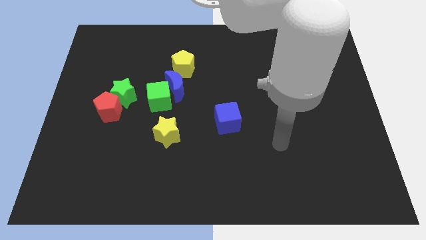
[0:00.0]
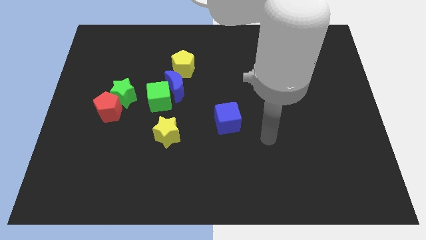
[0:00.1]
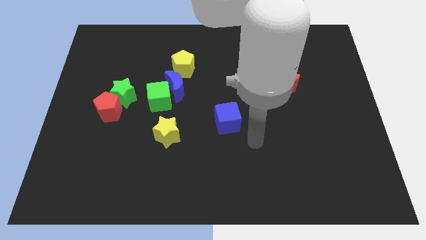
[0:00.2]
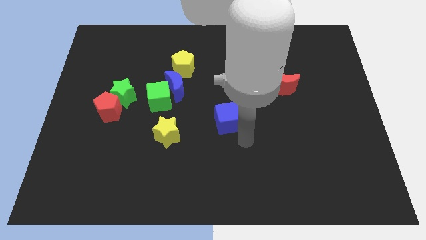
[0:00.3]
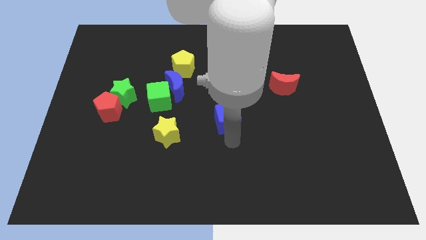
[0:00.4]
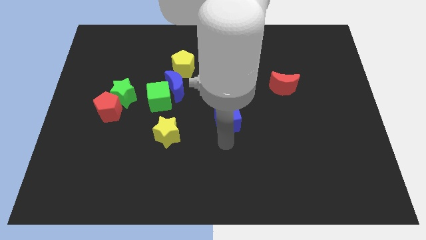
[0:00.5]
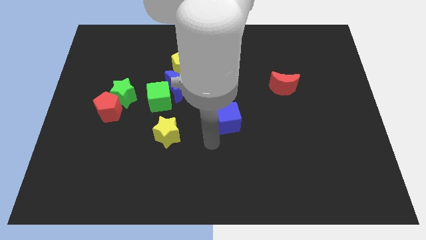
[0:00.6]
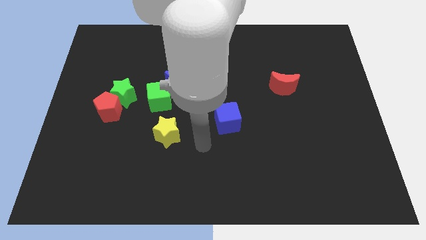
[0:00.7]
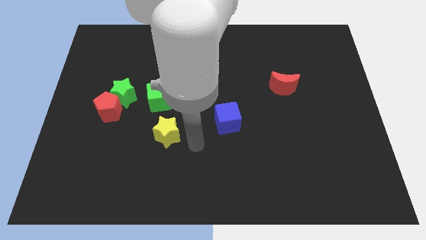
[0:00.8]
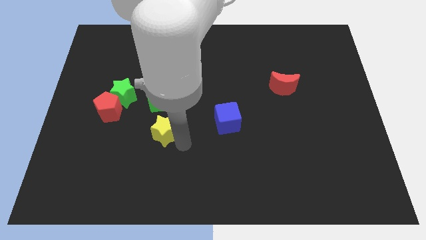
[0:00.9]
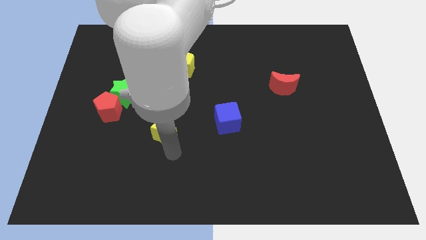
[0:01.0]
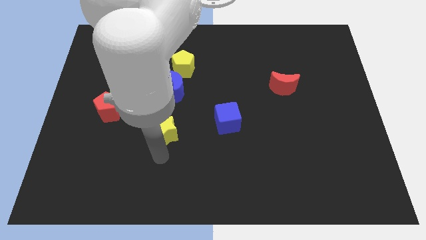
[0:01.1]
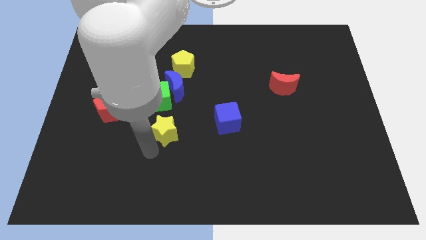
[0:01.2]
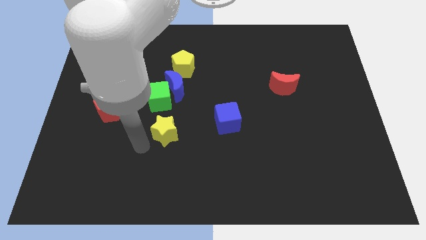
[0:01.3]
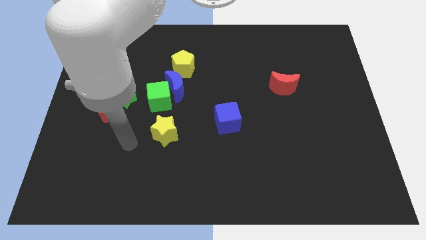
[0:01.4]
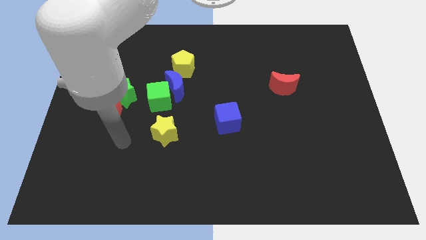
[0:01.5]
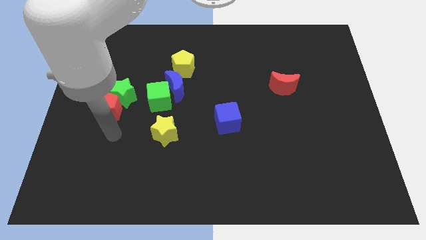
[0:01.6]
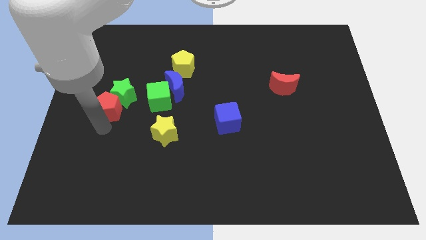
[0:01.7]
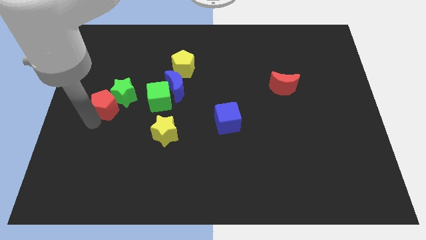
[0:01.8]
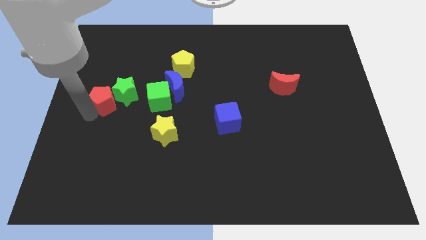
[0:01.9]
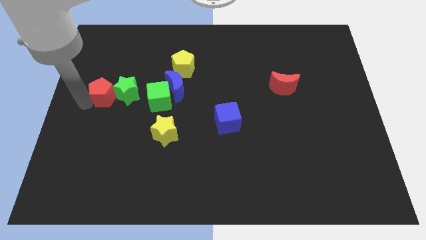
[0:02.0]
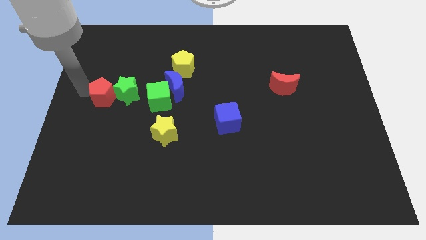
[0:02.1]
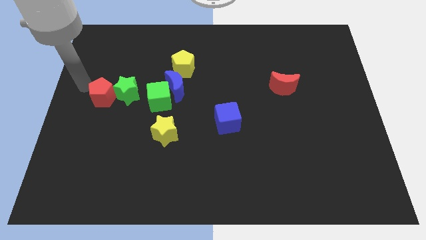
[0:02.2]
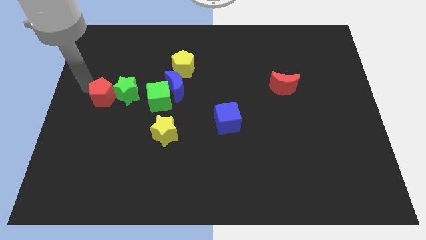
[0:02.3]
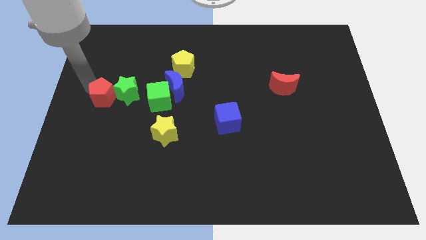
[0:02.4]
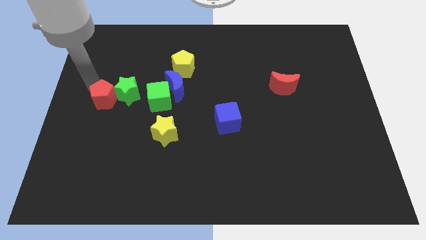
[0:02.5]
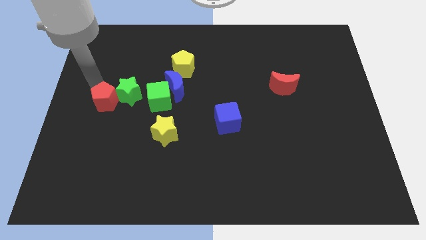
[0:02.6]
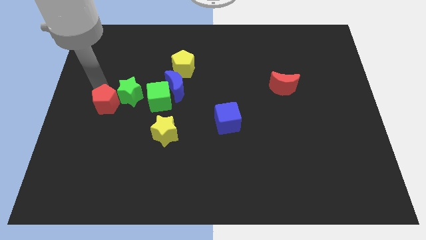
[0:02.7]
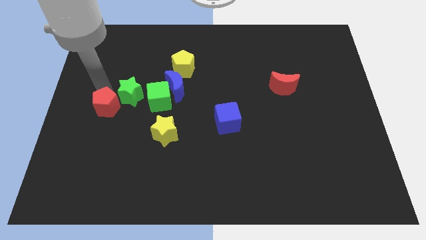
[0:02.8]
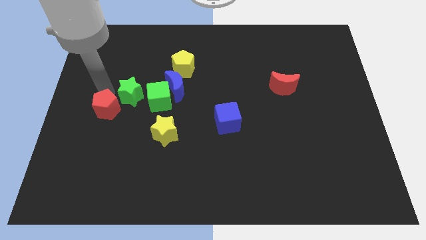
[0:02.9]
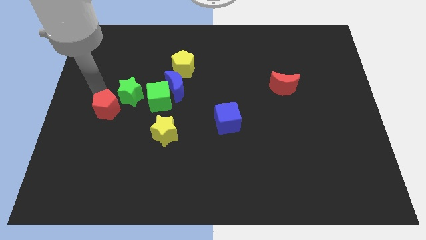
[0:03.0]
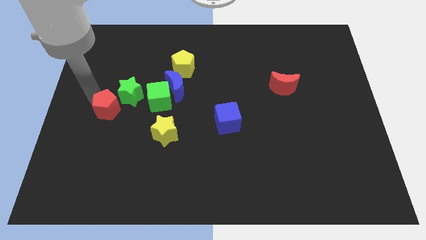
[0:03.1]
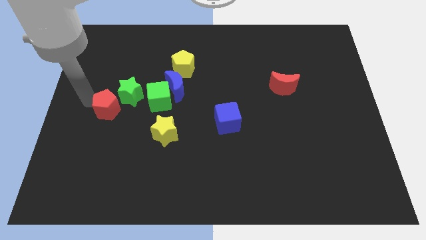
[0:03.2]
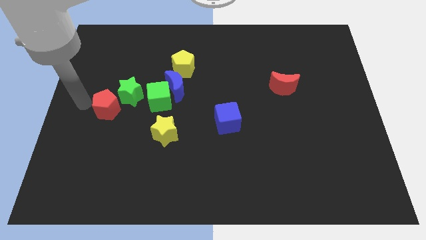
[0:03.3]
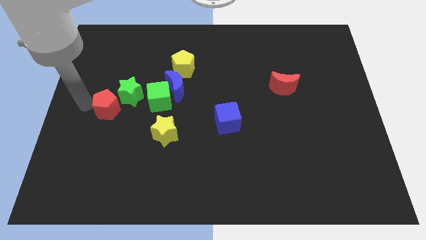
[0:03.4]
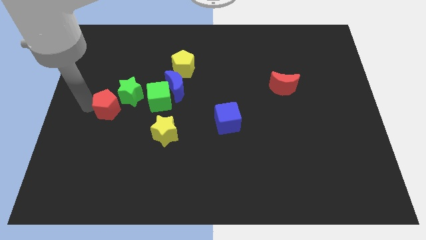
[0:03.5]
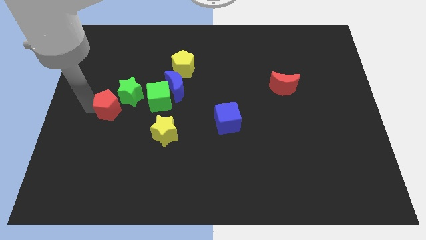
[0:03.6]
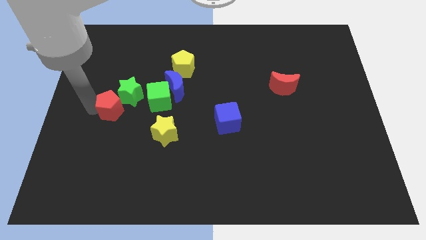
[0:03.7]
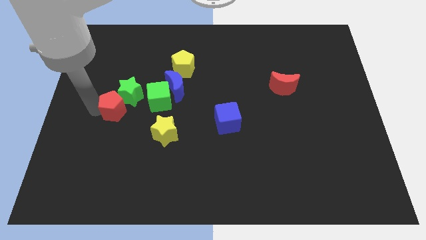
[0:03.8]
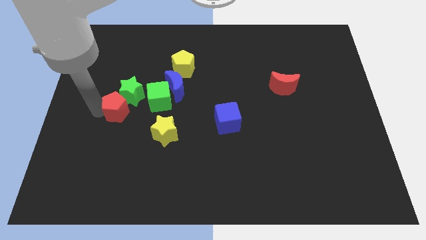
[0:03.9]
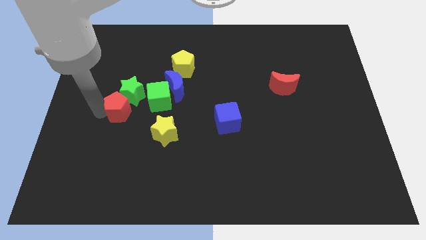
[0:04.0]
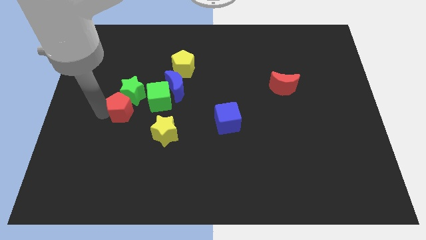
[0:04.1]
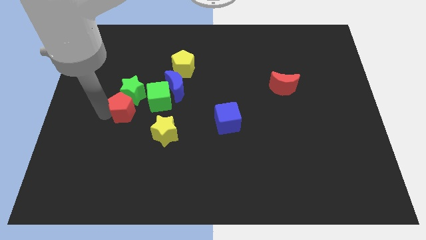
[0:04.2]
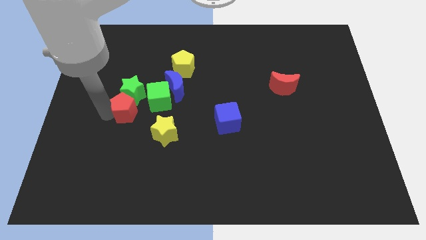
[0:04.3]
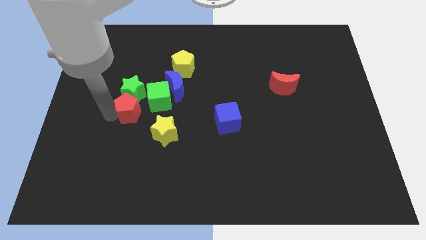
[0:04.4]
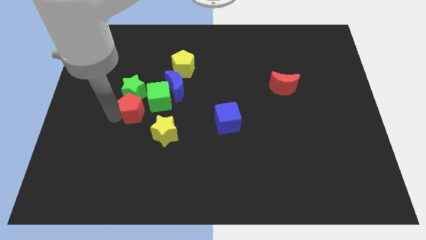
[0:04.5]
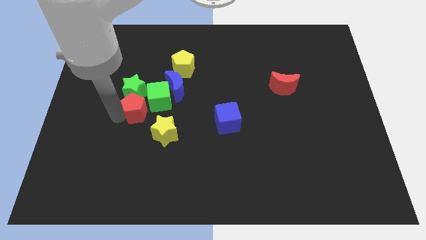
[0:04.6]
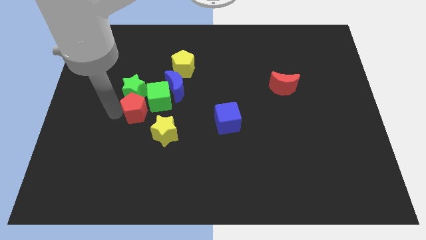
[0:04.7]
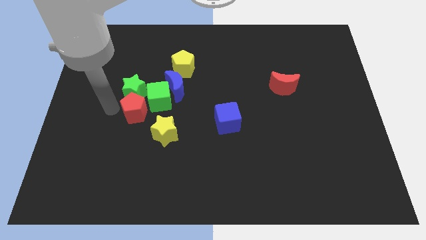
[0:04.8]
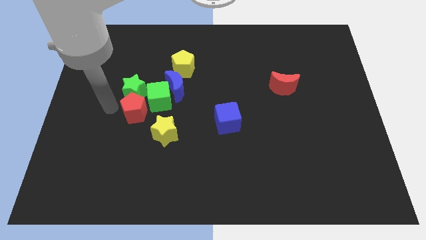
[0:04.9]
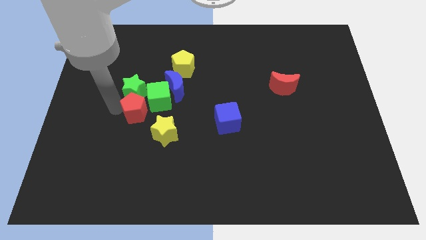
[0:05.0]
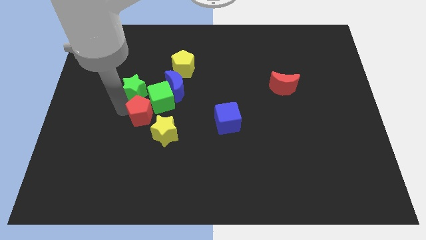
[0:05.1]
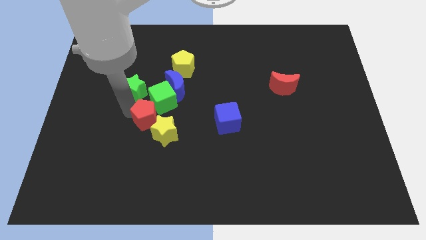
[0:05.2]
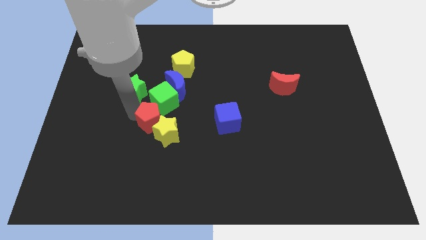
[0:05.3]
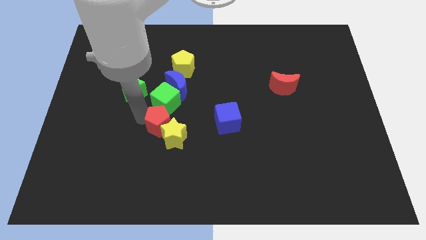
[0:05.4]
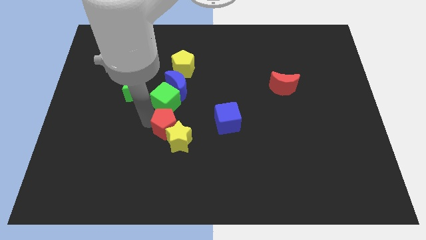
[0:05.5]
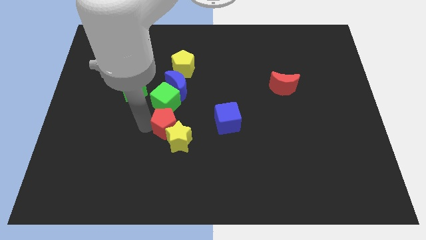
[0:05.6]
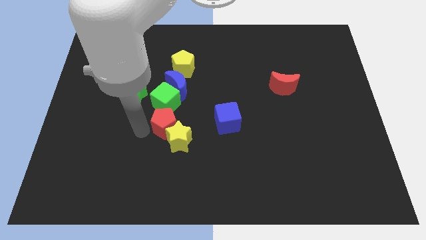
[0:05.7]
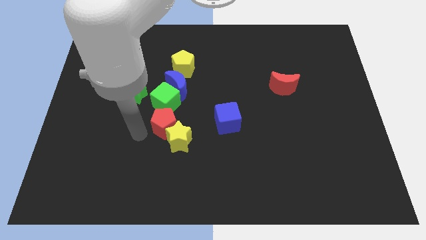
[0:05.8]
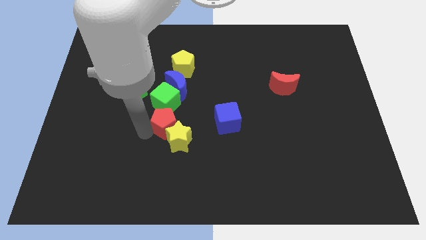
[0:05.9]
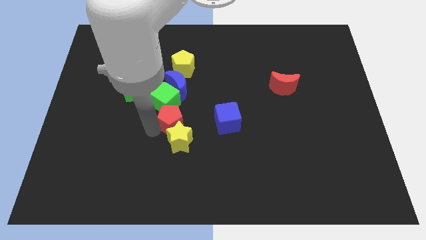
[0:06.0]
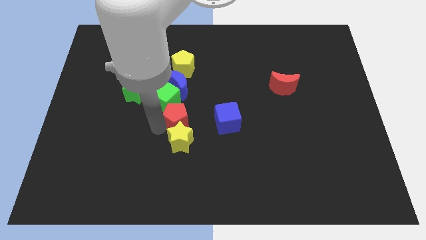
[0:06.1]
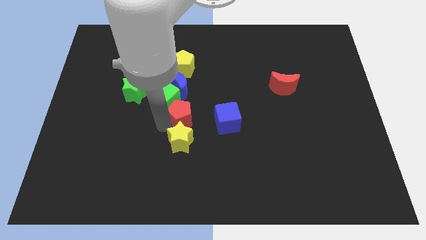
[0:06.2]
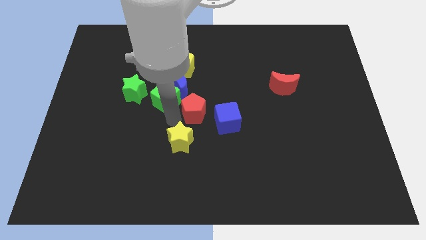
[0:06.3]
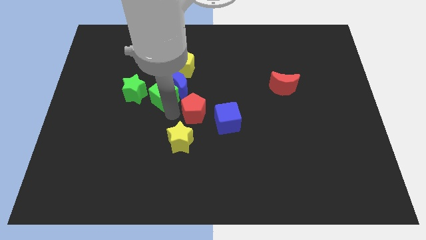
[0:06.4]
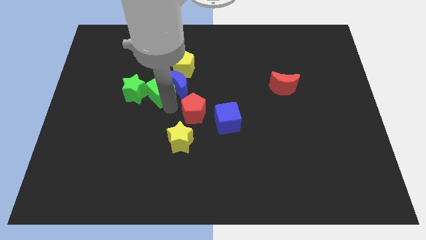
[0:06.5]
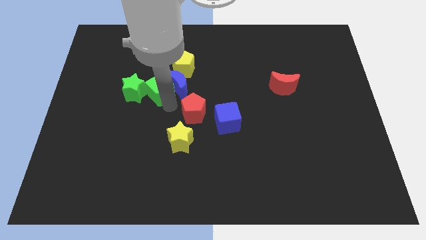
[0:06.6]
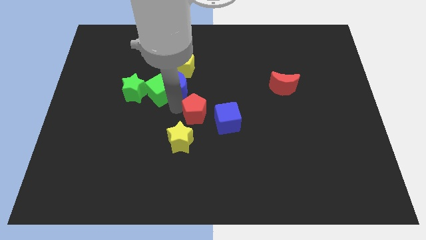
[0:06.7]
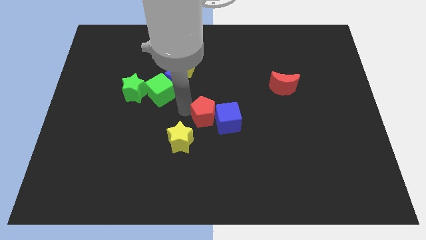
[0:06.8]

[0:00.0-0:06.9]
put the red pentagon close to the blue cube
